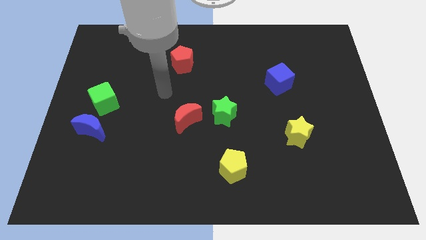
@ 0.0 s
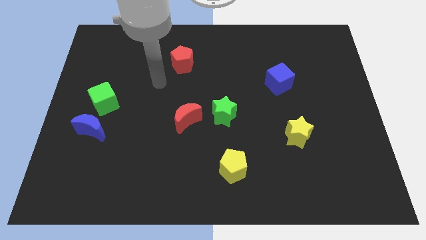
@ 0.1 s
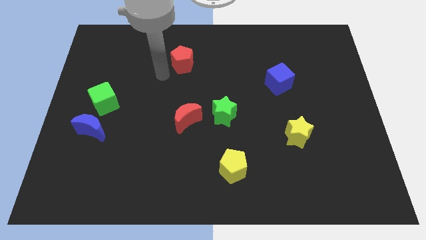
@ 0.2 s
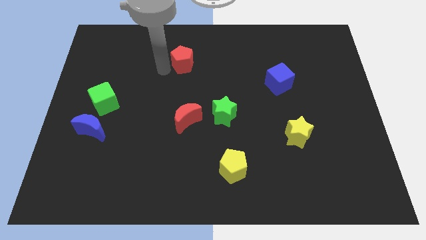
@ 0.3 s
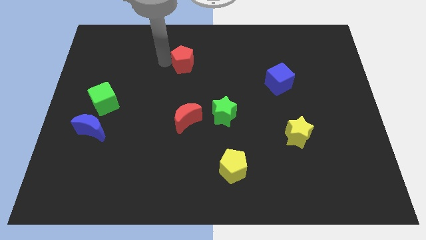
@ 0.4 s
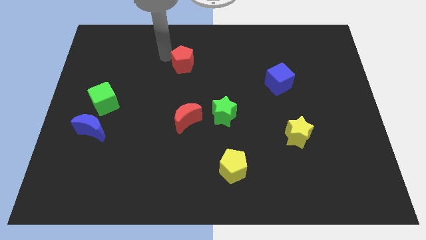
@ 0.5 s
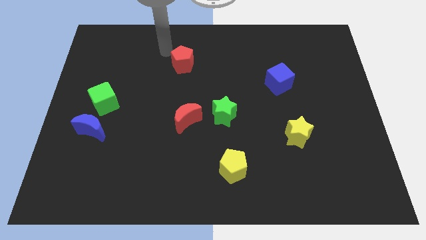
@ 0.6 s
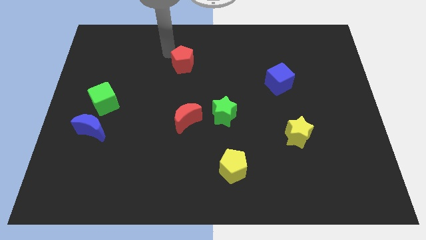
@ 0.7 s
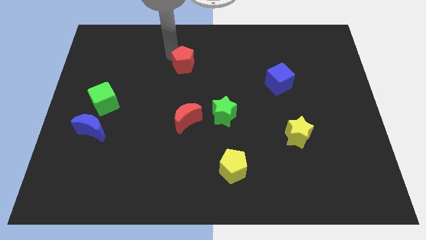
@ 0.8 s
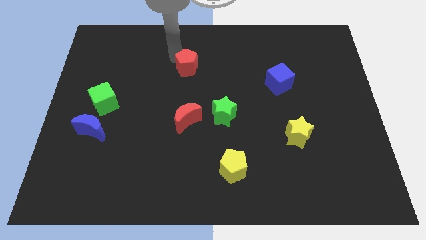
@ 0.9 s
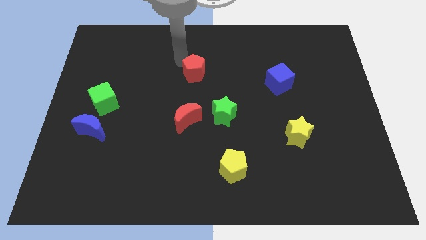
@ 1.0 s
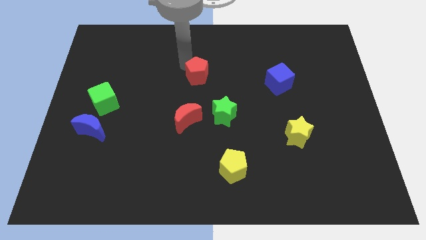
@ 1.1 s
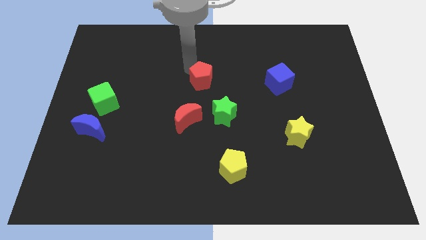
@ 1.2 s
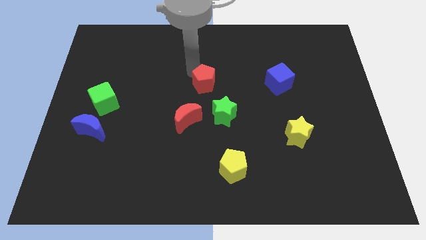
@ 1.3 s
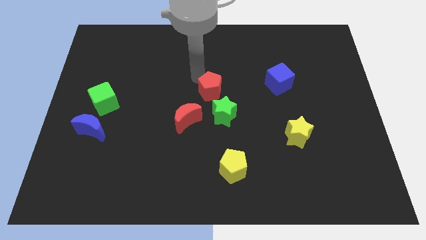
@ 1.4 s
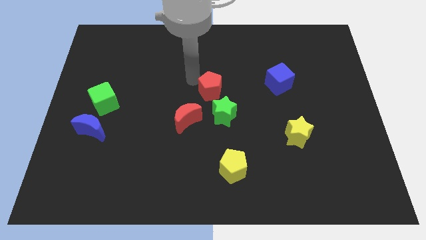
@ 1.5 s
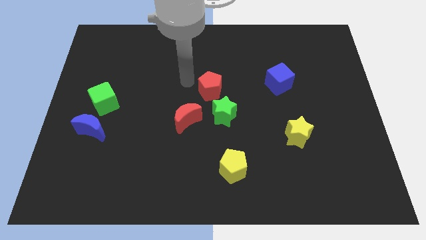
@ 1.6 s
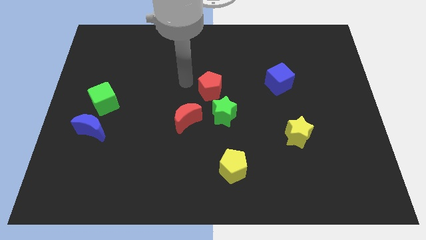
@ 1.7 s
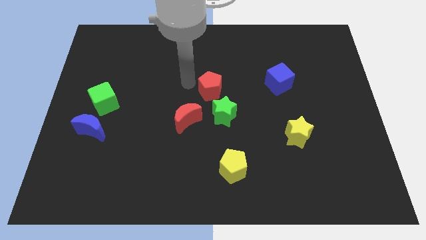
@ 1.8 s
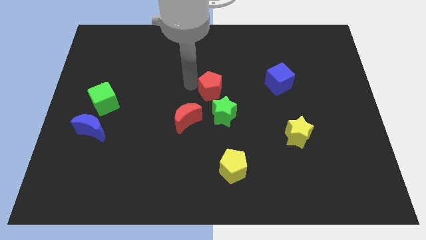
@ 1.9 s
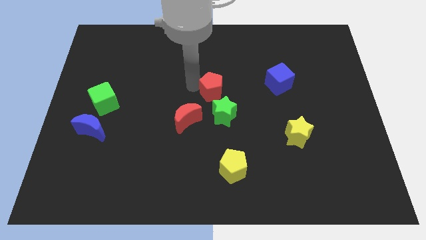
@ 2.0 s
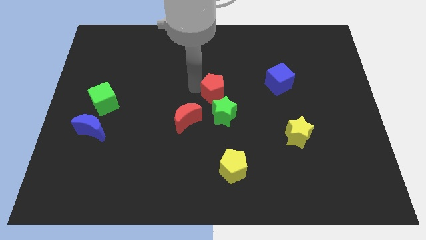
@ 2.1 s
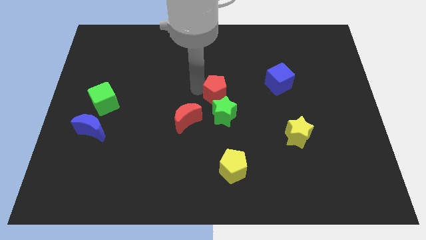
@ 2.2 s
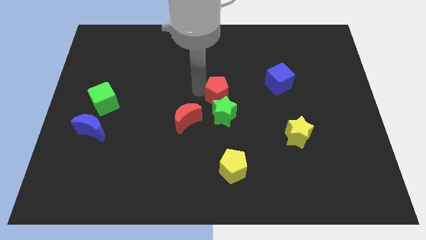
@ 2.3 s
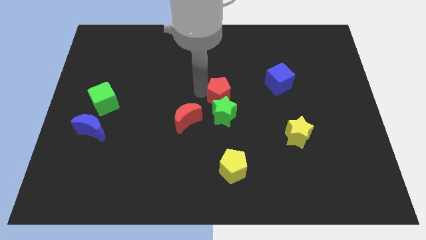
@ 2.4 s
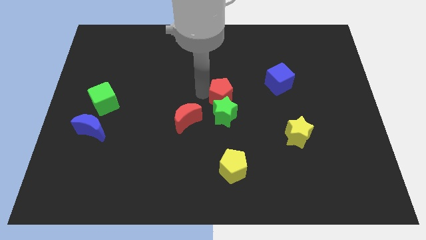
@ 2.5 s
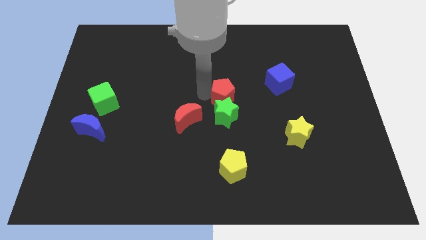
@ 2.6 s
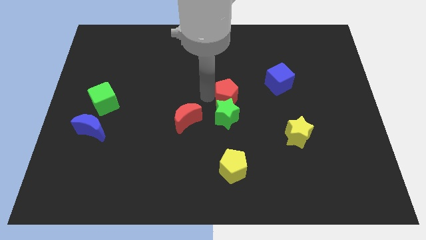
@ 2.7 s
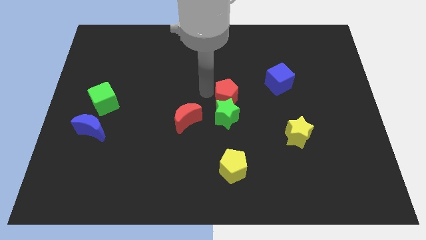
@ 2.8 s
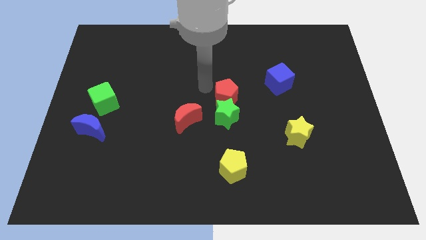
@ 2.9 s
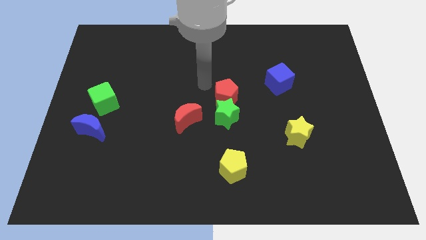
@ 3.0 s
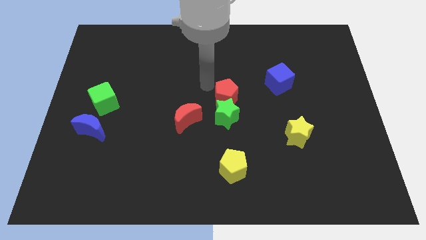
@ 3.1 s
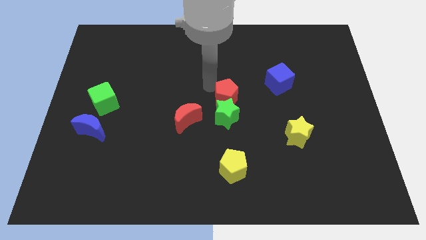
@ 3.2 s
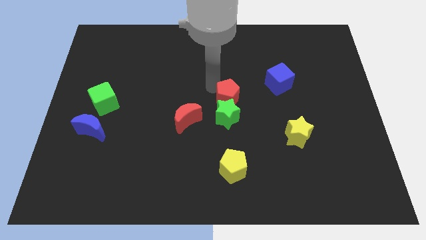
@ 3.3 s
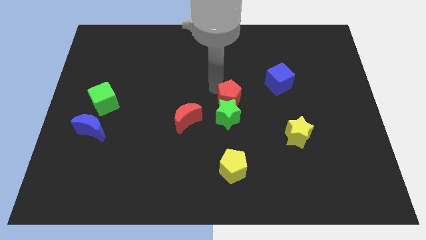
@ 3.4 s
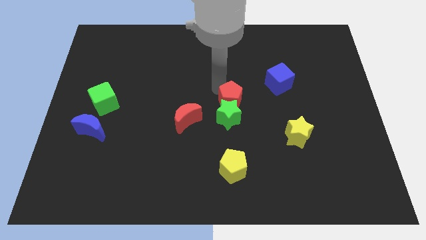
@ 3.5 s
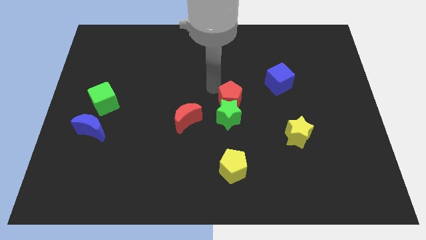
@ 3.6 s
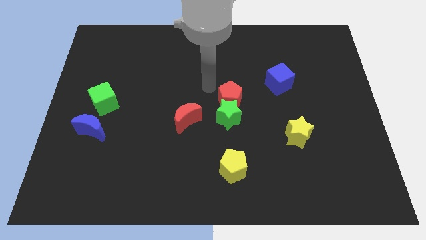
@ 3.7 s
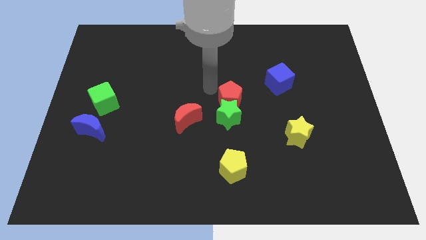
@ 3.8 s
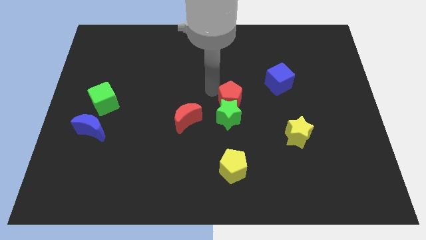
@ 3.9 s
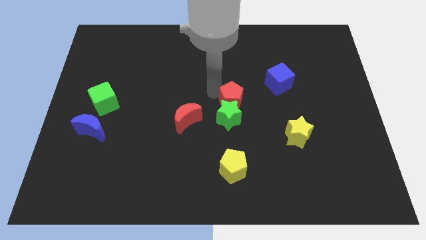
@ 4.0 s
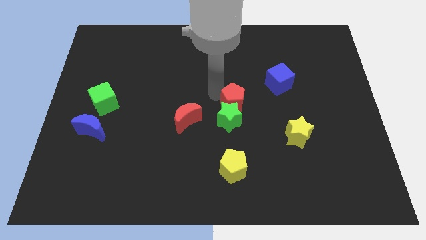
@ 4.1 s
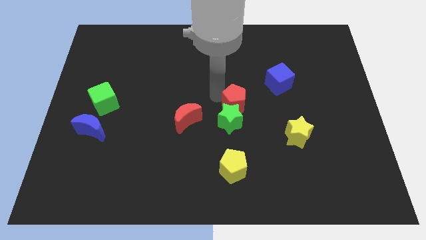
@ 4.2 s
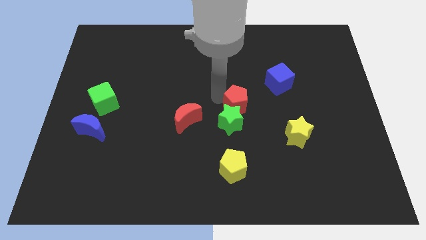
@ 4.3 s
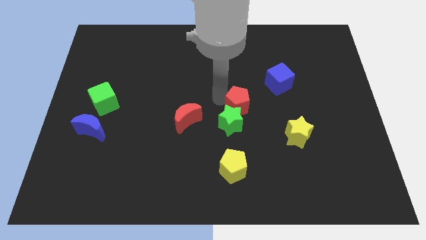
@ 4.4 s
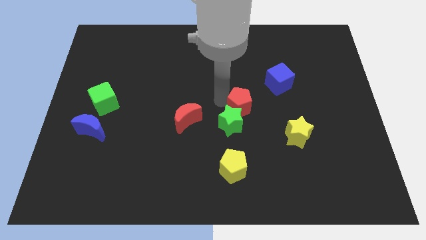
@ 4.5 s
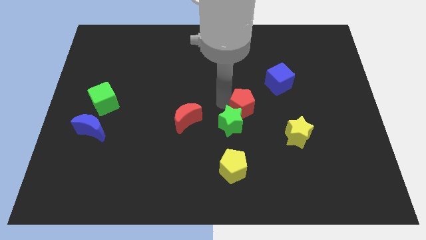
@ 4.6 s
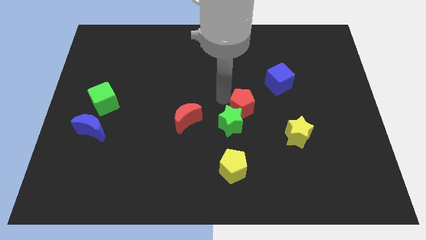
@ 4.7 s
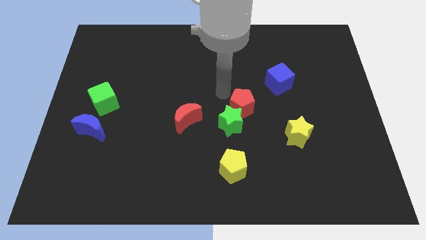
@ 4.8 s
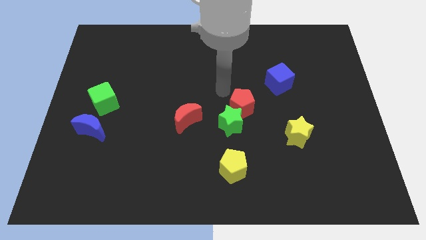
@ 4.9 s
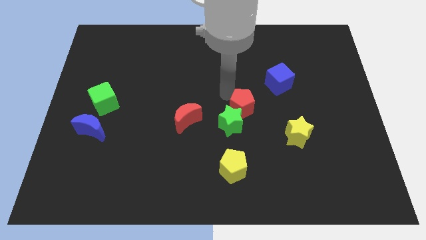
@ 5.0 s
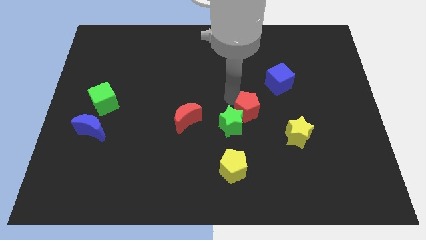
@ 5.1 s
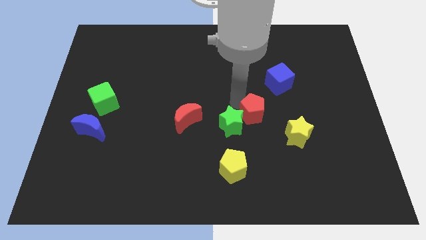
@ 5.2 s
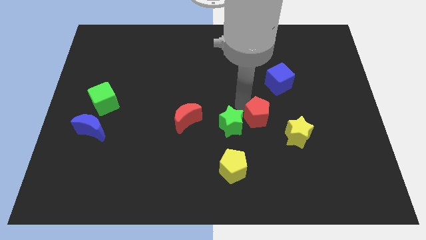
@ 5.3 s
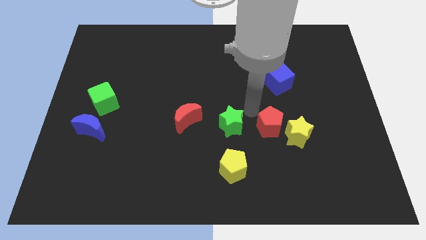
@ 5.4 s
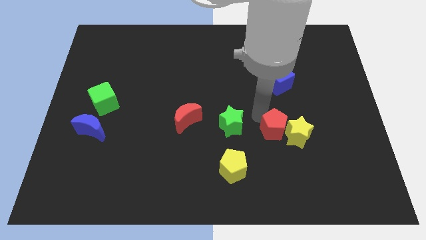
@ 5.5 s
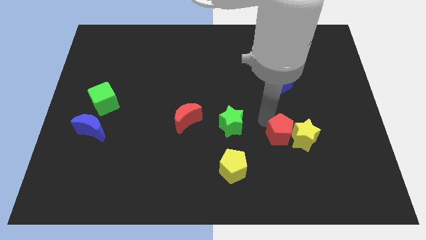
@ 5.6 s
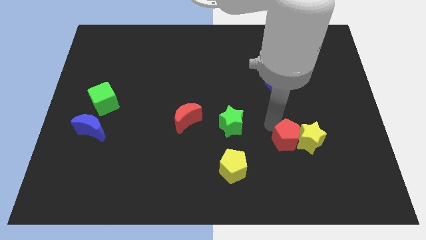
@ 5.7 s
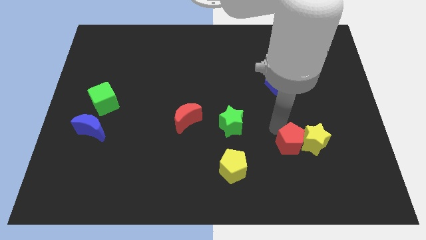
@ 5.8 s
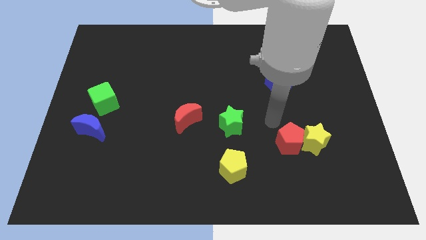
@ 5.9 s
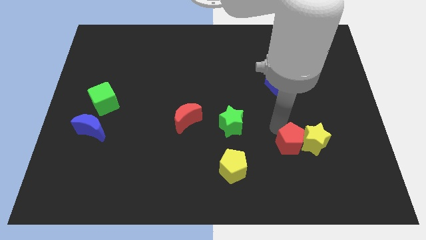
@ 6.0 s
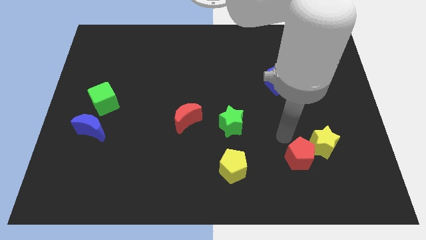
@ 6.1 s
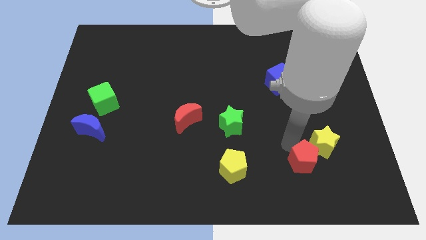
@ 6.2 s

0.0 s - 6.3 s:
slide the red pentagon to the bottom of the yellow star

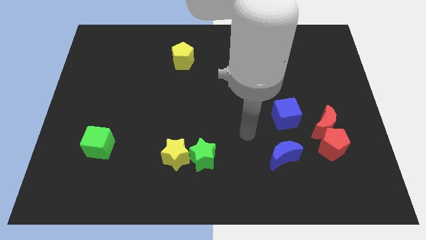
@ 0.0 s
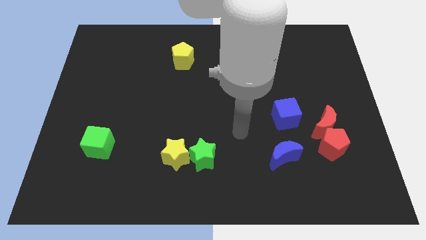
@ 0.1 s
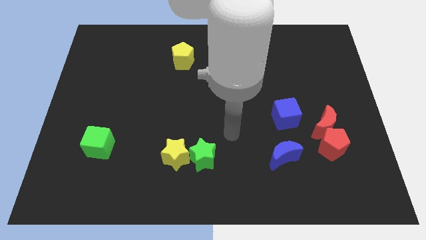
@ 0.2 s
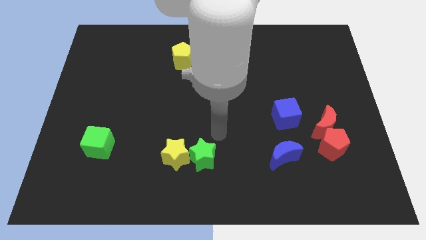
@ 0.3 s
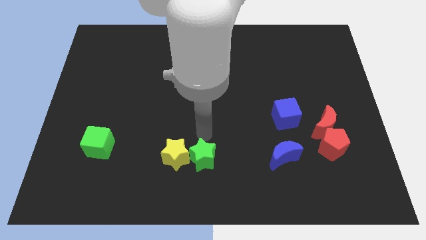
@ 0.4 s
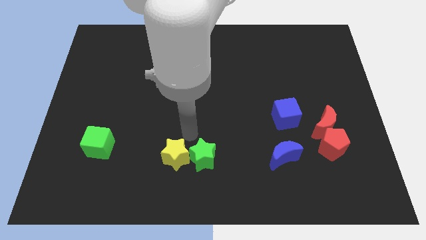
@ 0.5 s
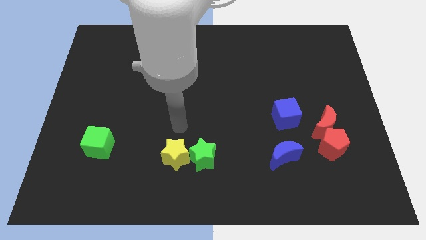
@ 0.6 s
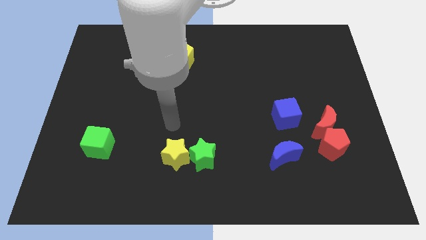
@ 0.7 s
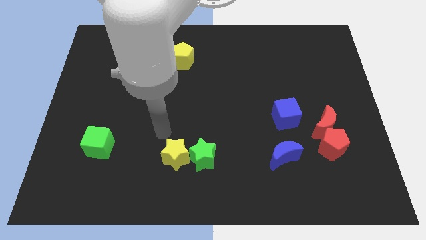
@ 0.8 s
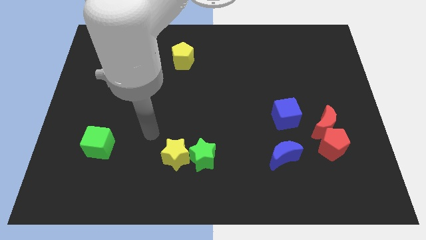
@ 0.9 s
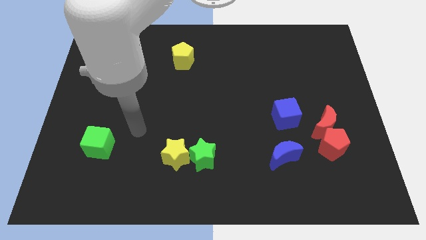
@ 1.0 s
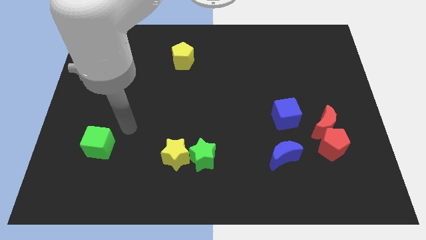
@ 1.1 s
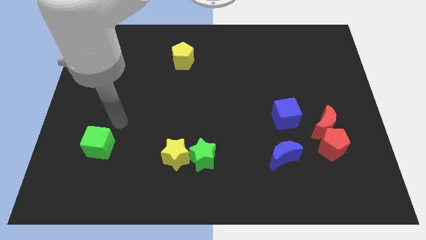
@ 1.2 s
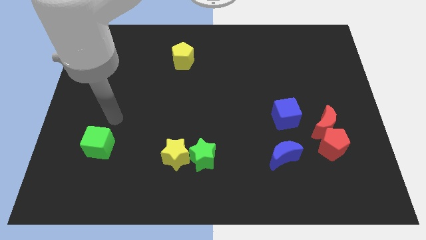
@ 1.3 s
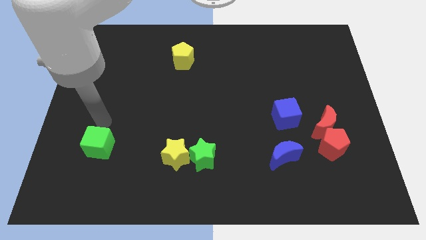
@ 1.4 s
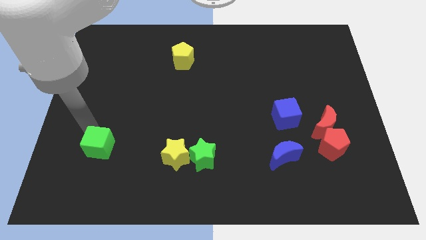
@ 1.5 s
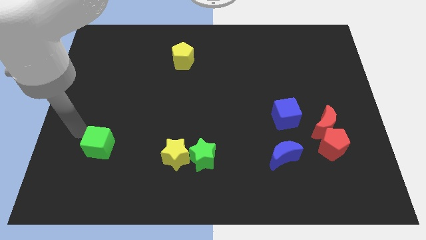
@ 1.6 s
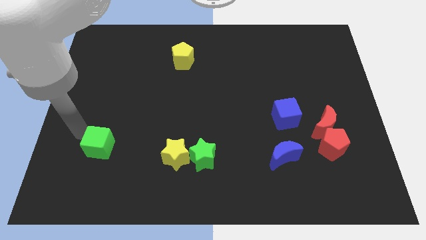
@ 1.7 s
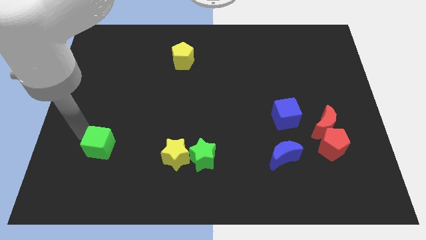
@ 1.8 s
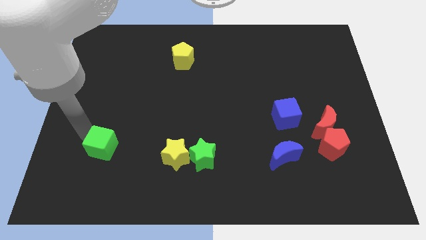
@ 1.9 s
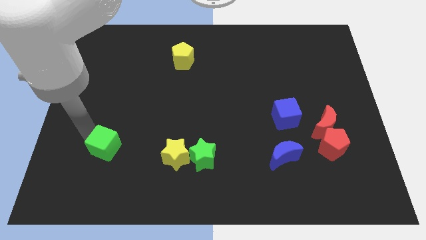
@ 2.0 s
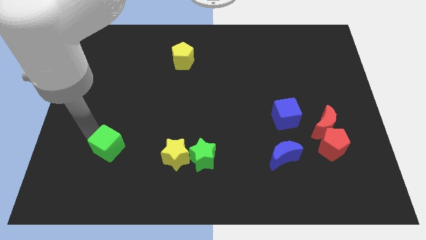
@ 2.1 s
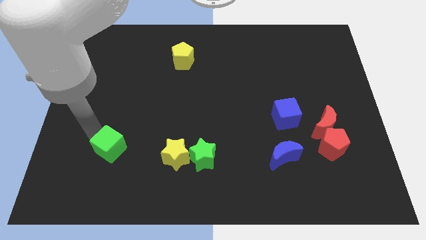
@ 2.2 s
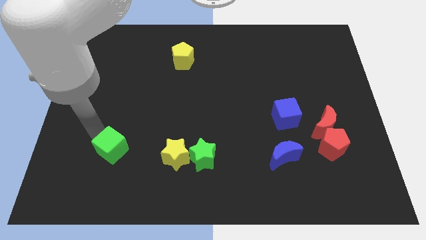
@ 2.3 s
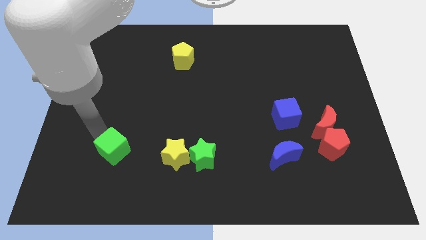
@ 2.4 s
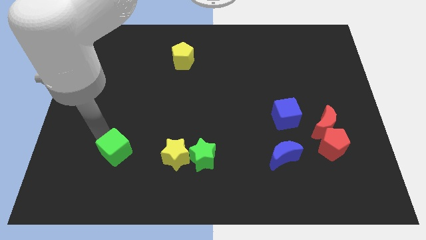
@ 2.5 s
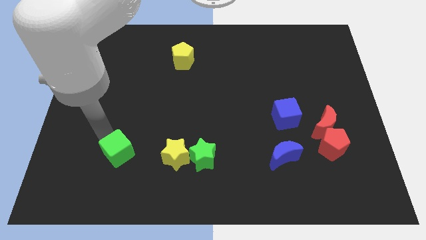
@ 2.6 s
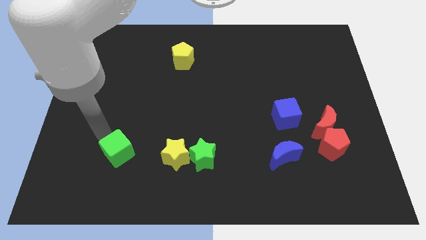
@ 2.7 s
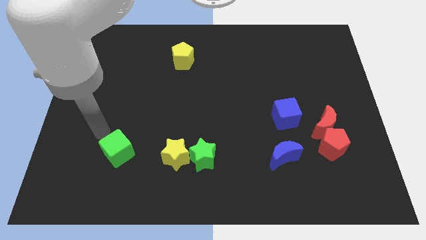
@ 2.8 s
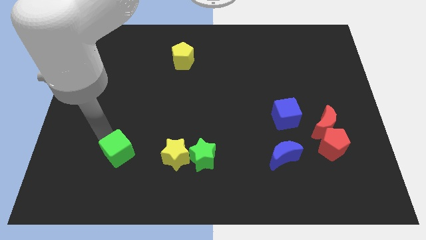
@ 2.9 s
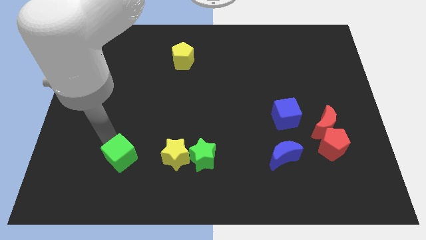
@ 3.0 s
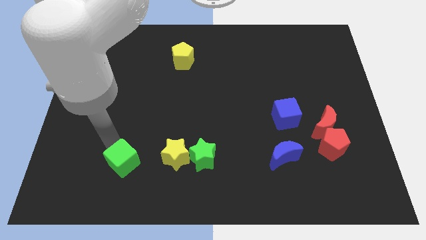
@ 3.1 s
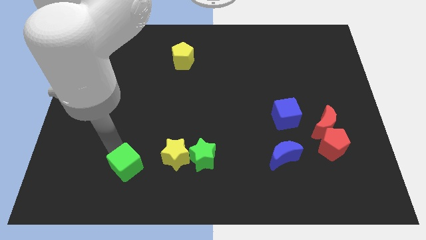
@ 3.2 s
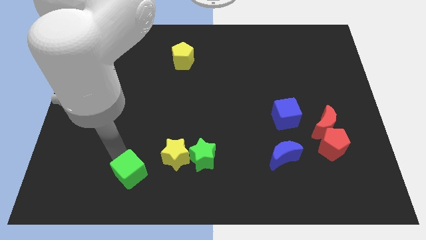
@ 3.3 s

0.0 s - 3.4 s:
slide the green cube diagonally down and to the left of the yellow star
